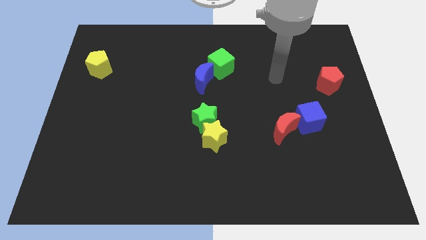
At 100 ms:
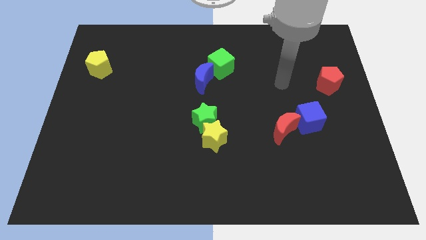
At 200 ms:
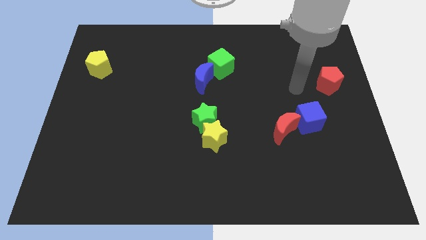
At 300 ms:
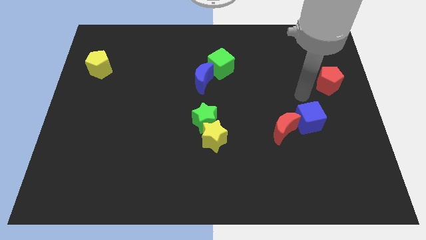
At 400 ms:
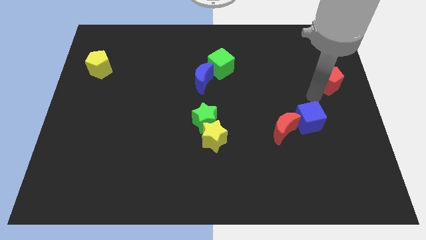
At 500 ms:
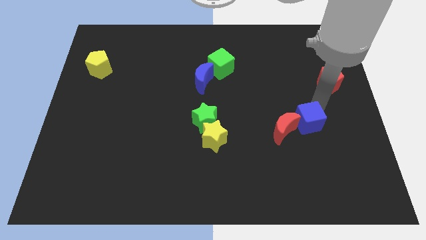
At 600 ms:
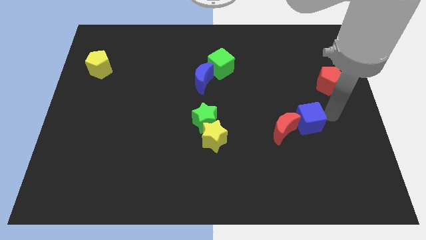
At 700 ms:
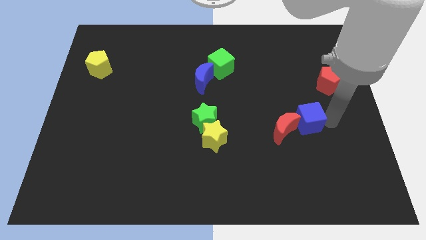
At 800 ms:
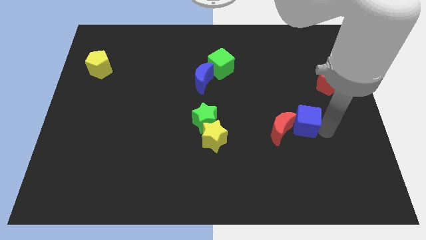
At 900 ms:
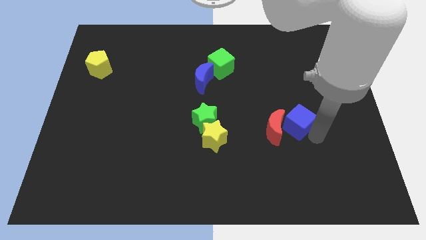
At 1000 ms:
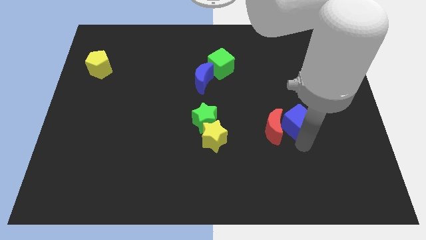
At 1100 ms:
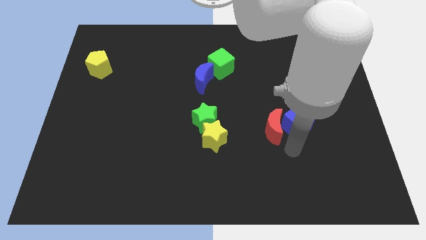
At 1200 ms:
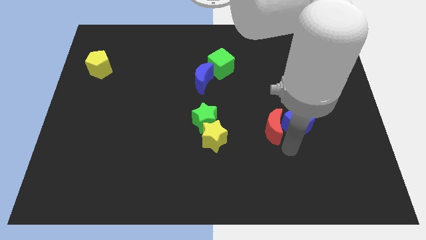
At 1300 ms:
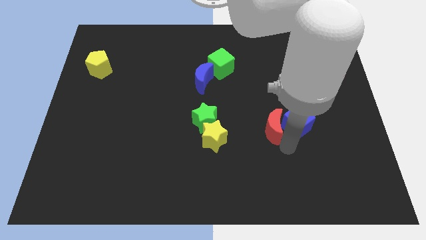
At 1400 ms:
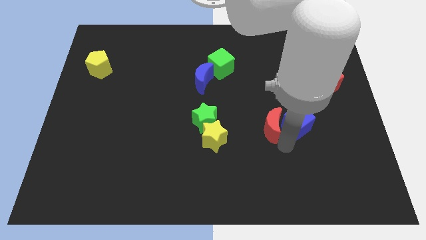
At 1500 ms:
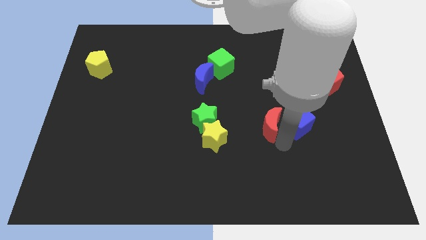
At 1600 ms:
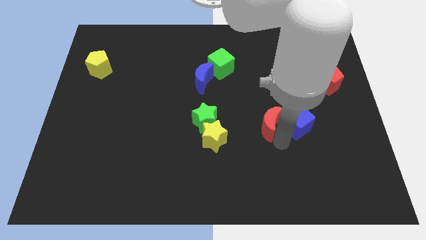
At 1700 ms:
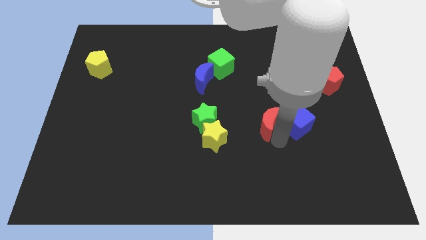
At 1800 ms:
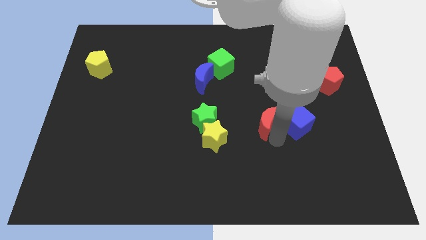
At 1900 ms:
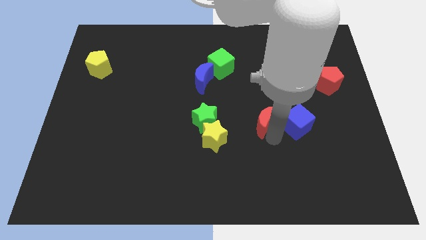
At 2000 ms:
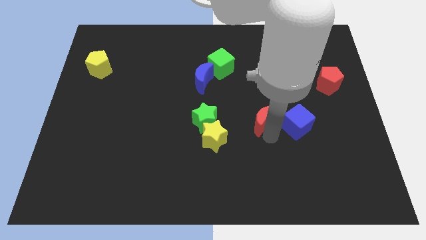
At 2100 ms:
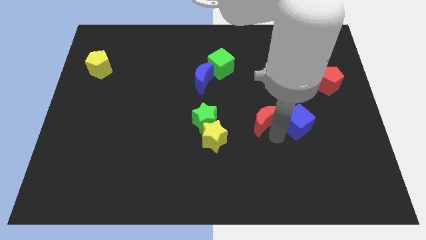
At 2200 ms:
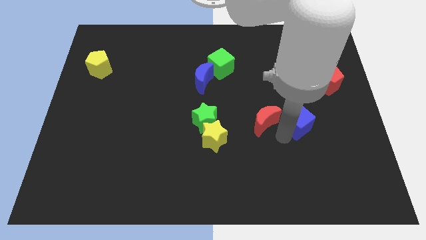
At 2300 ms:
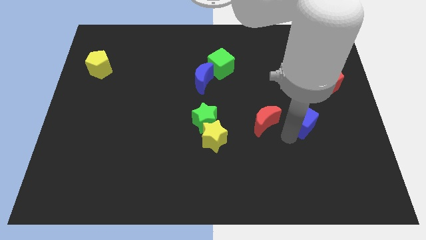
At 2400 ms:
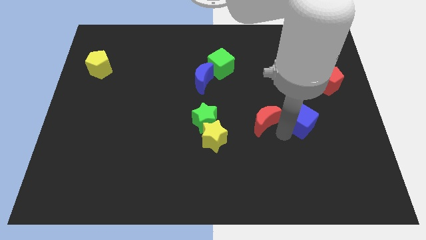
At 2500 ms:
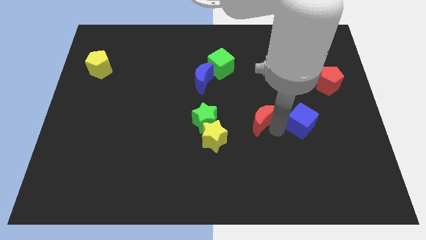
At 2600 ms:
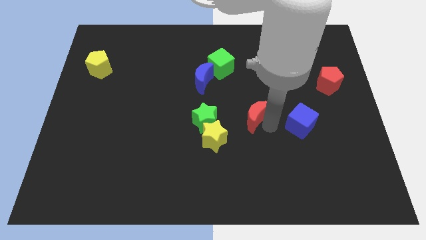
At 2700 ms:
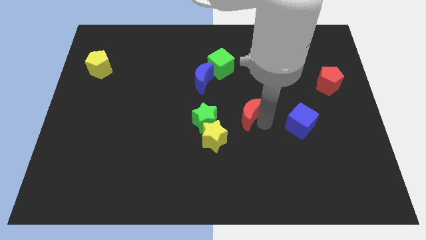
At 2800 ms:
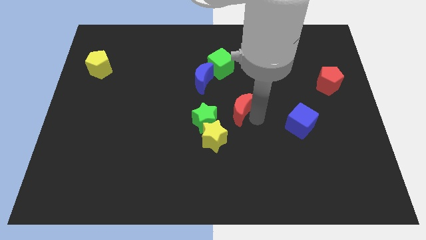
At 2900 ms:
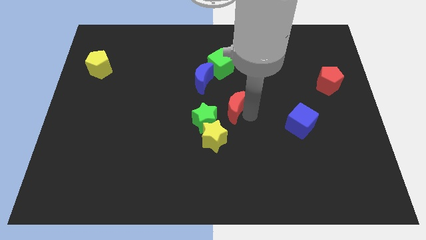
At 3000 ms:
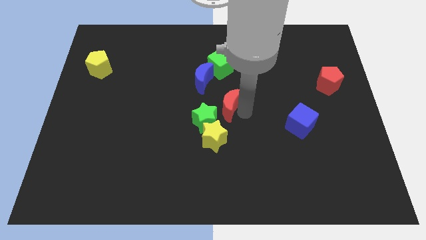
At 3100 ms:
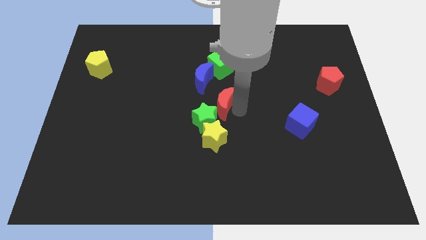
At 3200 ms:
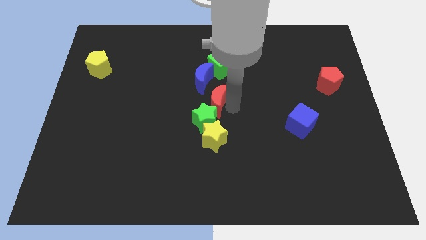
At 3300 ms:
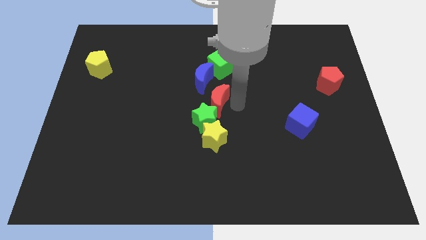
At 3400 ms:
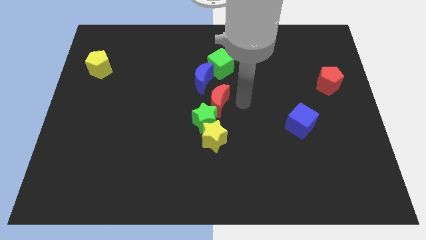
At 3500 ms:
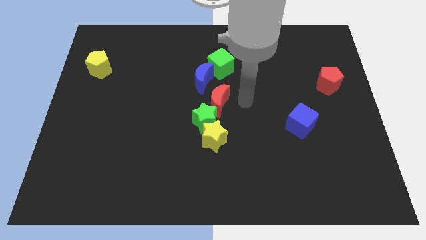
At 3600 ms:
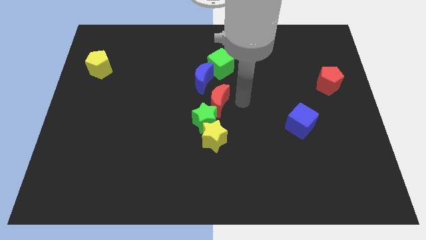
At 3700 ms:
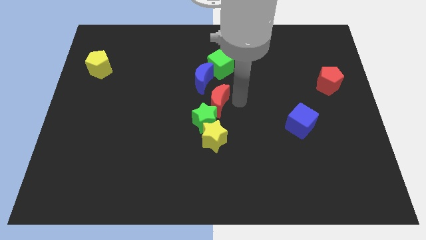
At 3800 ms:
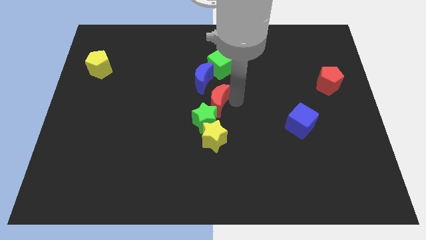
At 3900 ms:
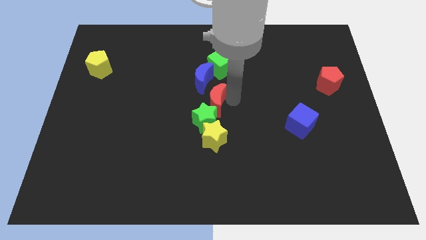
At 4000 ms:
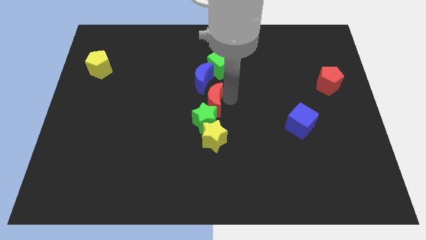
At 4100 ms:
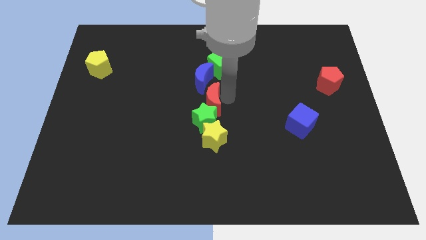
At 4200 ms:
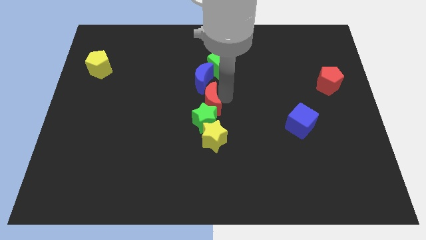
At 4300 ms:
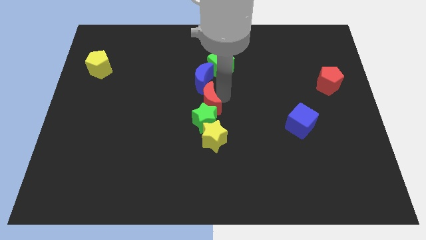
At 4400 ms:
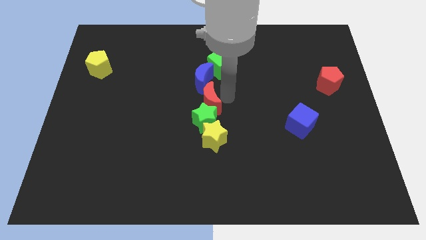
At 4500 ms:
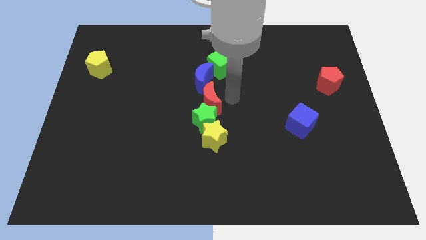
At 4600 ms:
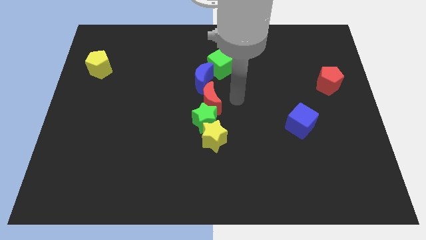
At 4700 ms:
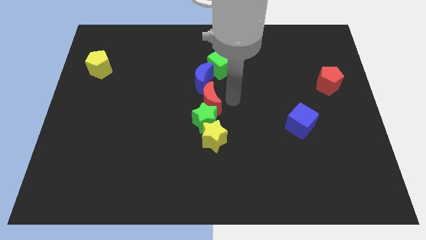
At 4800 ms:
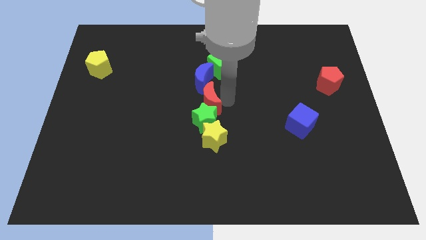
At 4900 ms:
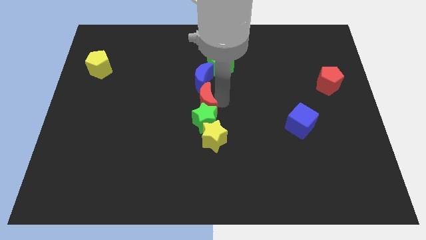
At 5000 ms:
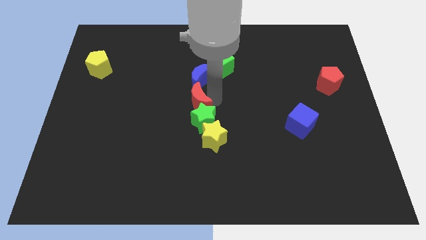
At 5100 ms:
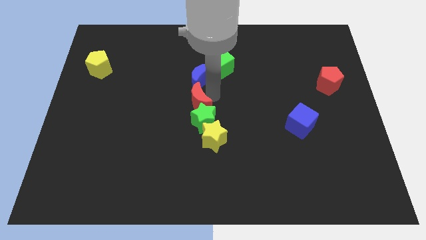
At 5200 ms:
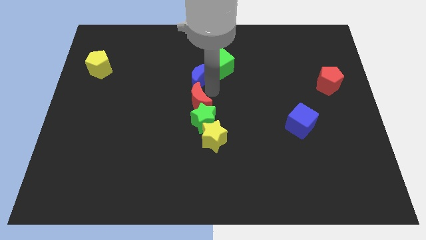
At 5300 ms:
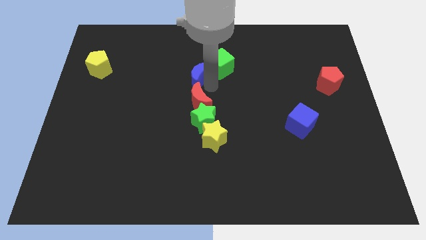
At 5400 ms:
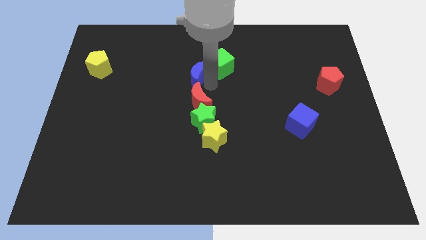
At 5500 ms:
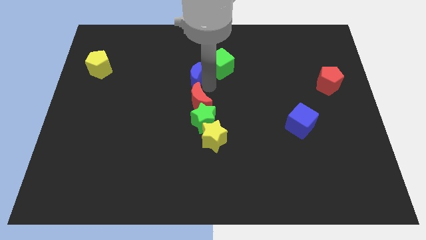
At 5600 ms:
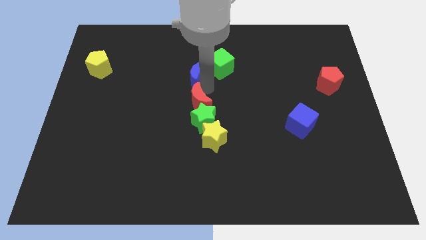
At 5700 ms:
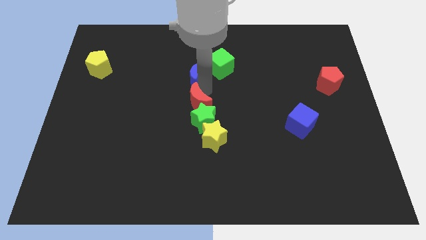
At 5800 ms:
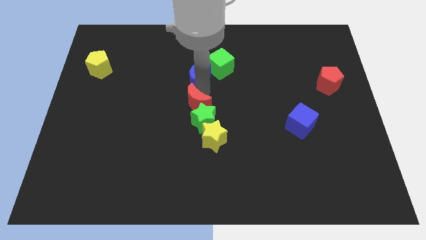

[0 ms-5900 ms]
slide the red moon to the top left of the yellow star

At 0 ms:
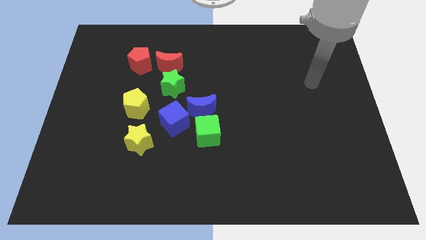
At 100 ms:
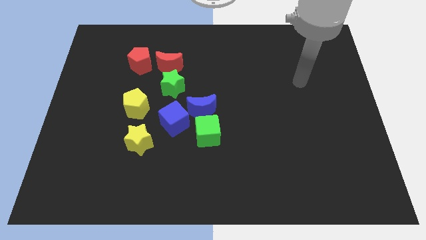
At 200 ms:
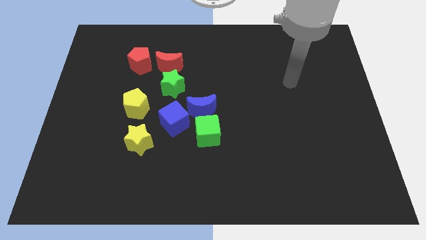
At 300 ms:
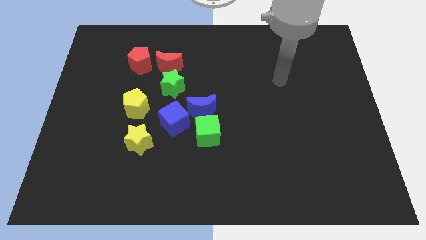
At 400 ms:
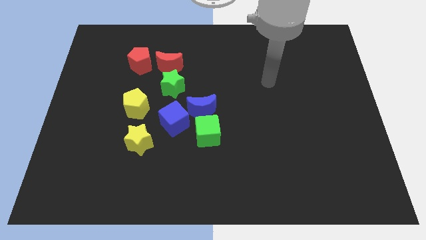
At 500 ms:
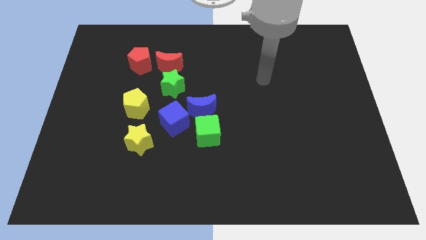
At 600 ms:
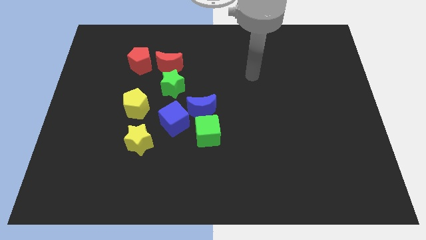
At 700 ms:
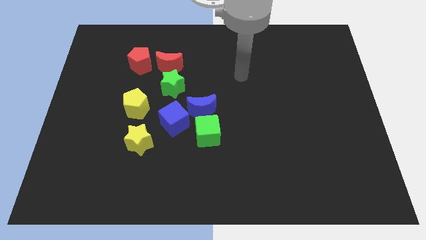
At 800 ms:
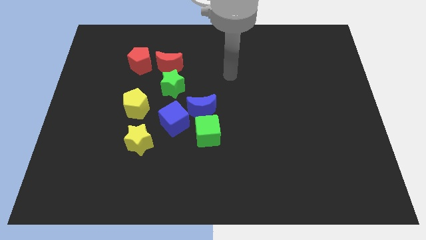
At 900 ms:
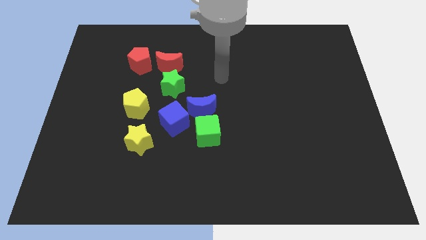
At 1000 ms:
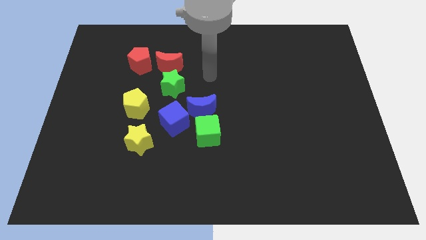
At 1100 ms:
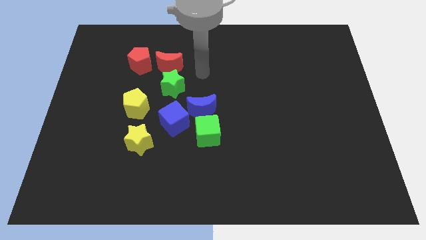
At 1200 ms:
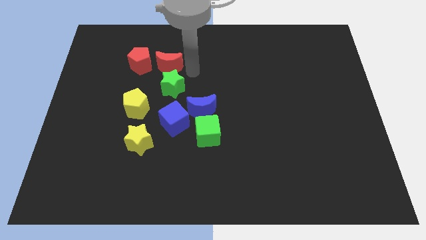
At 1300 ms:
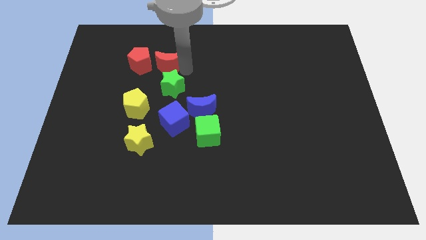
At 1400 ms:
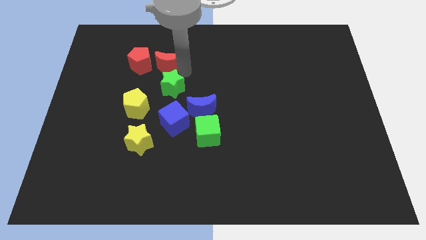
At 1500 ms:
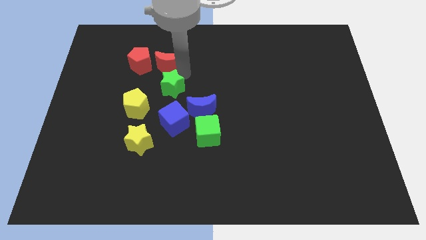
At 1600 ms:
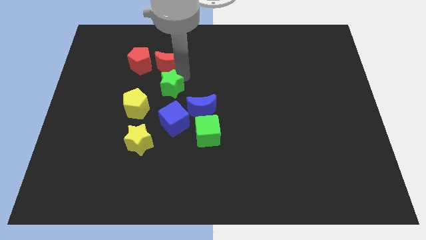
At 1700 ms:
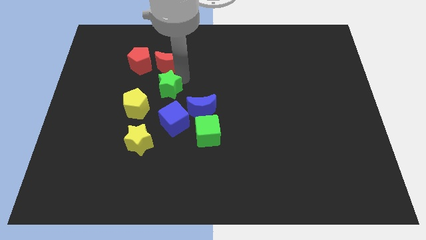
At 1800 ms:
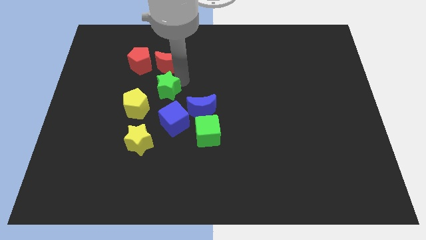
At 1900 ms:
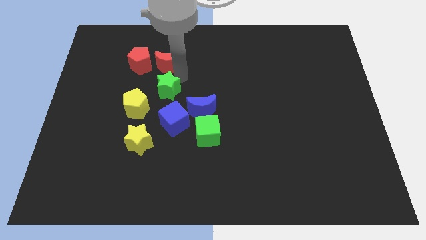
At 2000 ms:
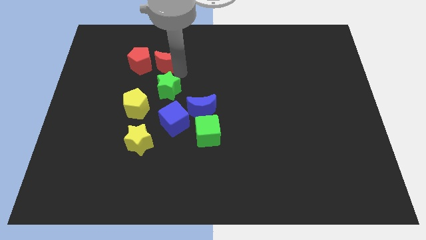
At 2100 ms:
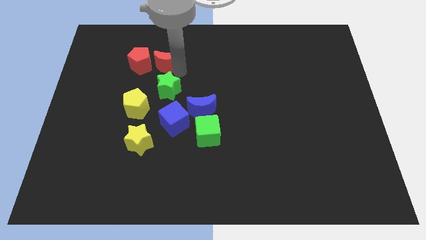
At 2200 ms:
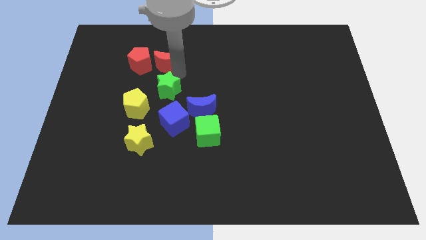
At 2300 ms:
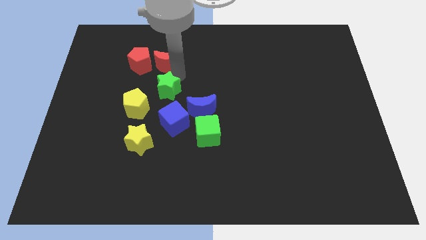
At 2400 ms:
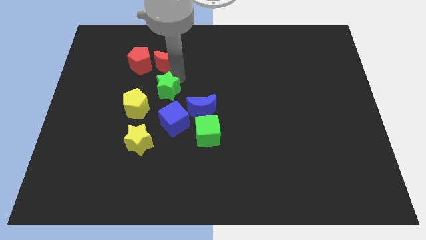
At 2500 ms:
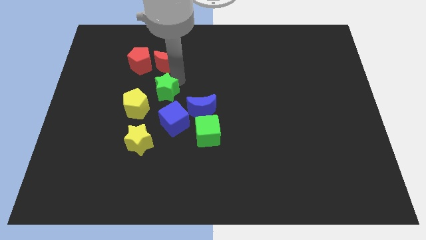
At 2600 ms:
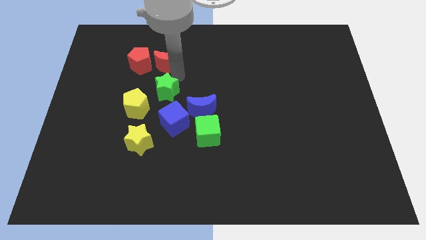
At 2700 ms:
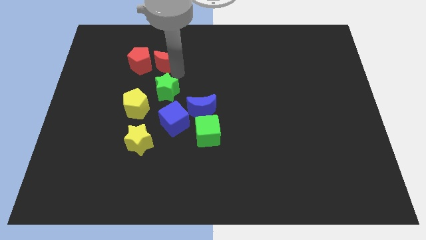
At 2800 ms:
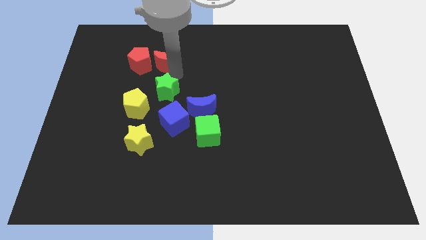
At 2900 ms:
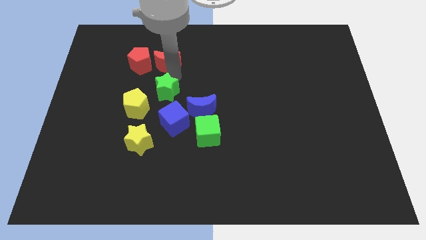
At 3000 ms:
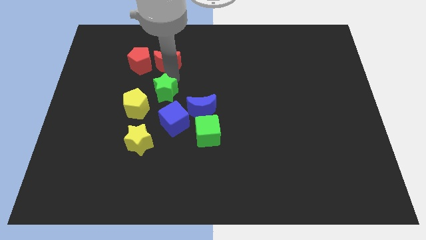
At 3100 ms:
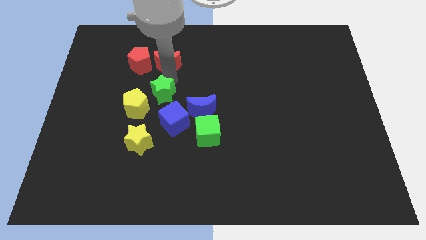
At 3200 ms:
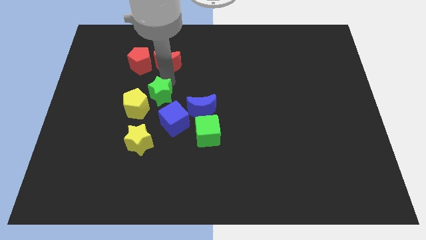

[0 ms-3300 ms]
slide the green star left of the blue moon
